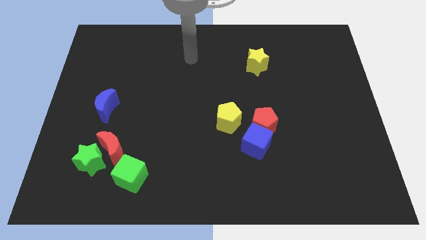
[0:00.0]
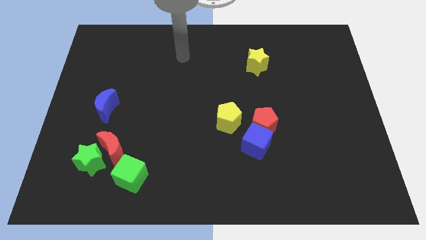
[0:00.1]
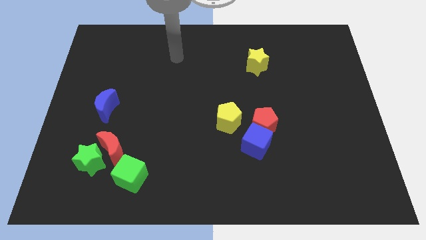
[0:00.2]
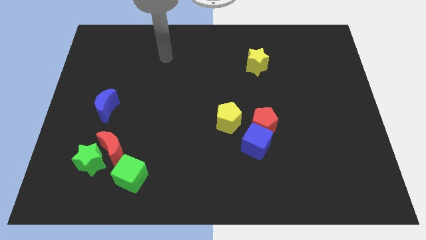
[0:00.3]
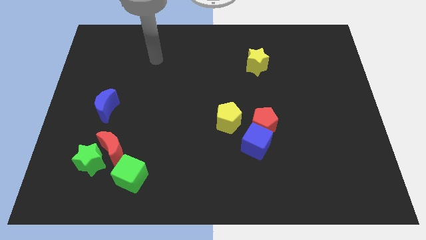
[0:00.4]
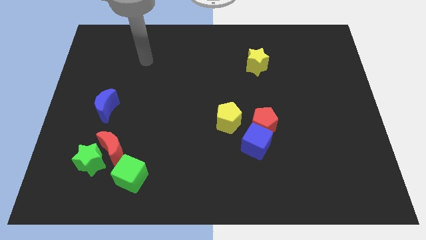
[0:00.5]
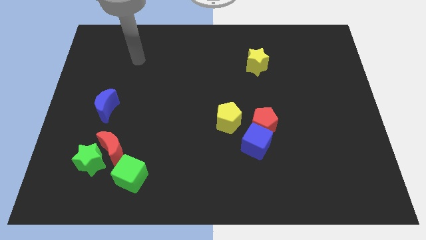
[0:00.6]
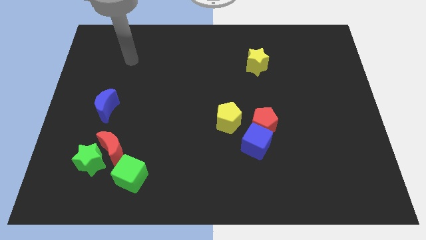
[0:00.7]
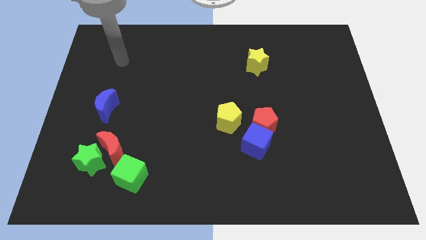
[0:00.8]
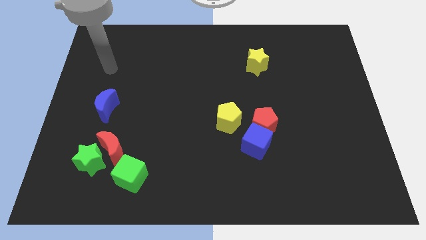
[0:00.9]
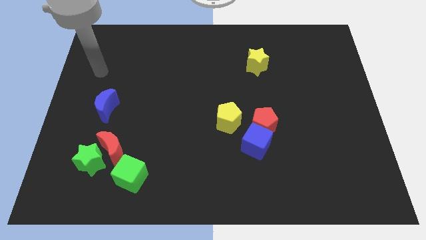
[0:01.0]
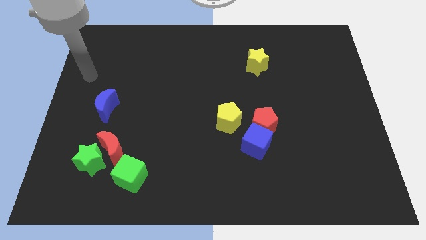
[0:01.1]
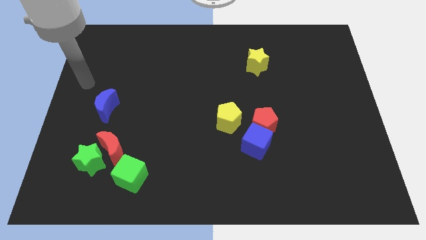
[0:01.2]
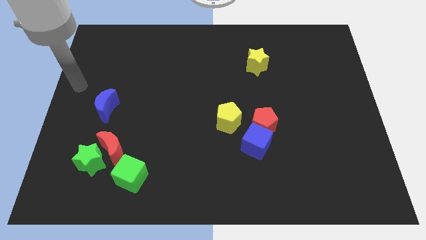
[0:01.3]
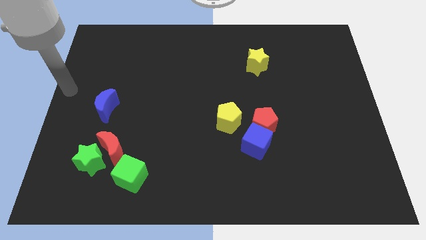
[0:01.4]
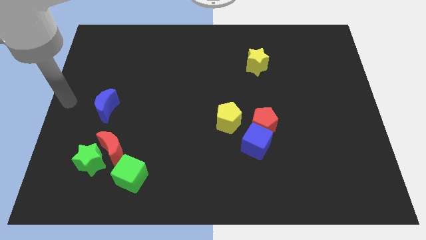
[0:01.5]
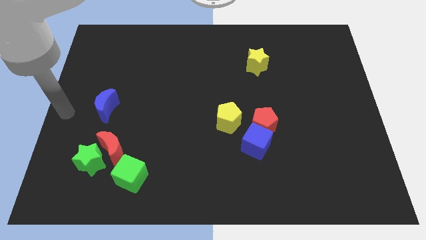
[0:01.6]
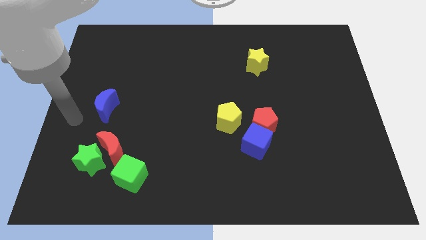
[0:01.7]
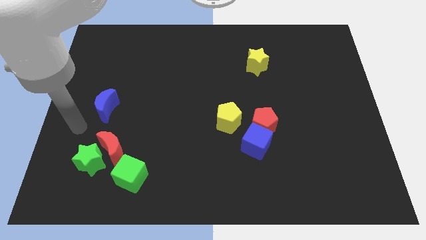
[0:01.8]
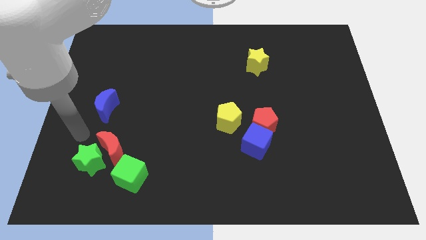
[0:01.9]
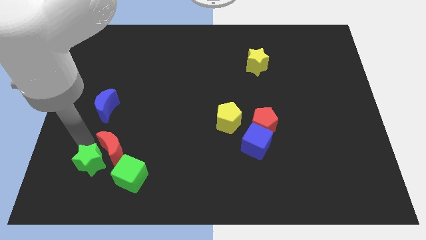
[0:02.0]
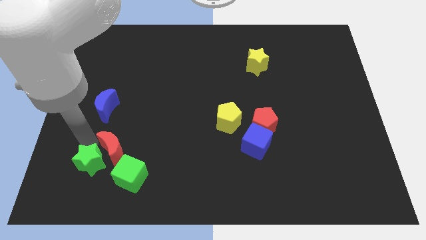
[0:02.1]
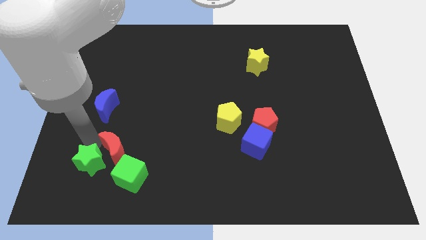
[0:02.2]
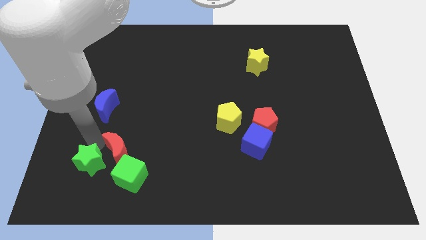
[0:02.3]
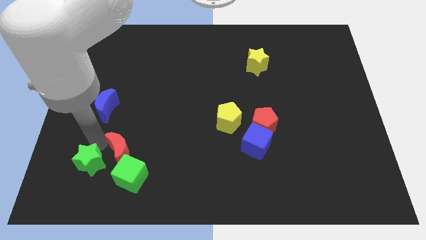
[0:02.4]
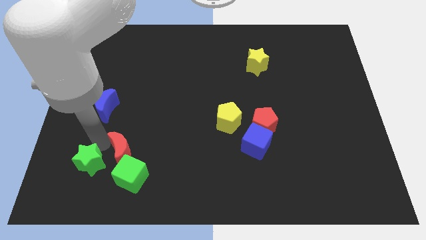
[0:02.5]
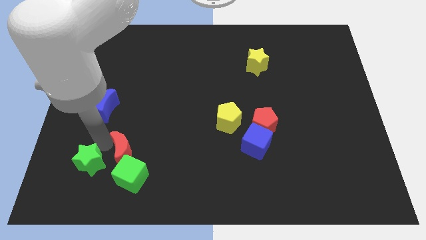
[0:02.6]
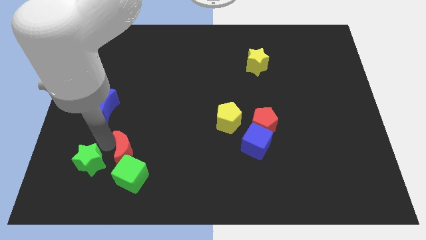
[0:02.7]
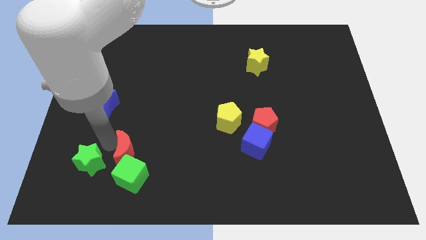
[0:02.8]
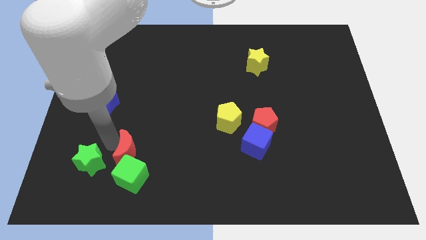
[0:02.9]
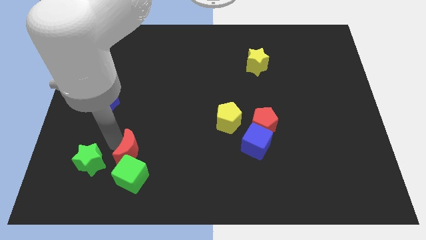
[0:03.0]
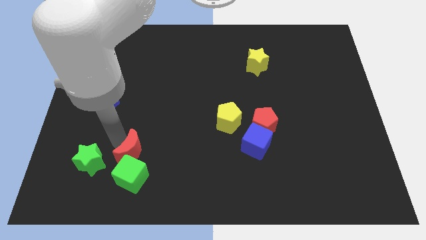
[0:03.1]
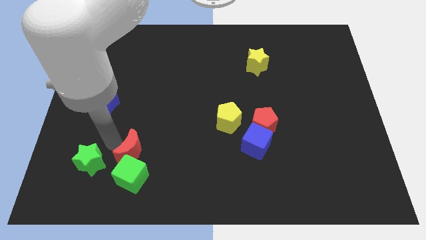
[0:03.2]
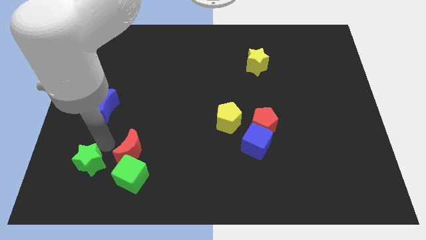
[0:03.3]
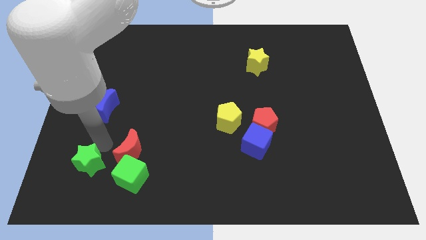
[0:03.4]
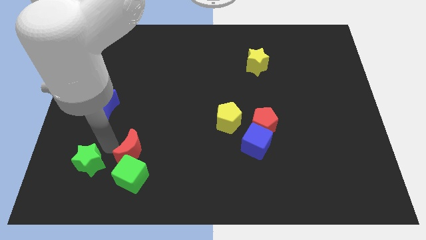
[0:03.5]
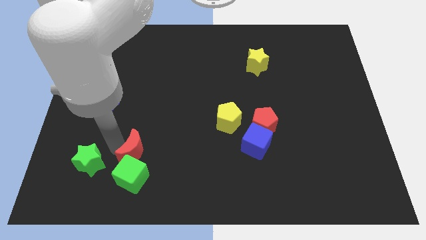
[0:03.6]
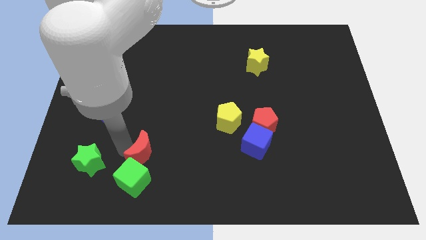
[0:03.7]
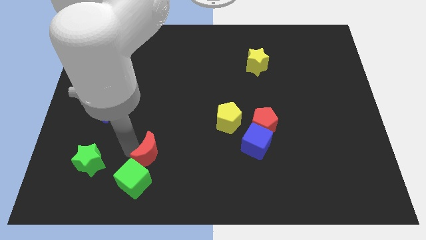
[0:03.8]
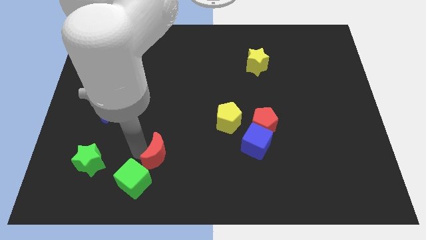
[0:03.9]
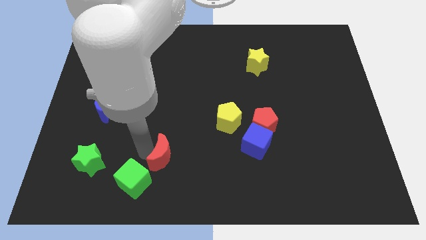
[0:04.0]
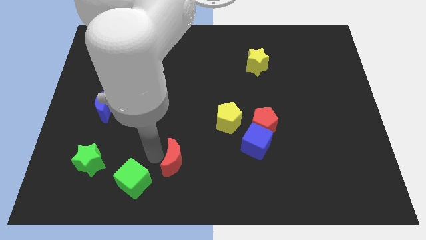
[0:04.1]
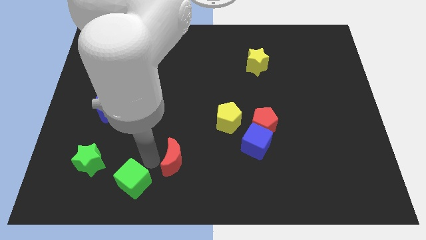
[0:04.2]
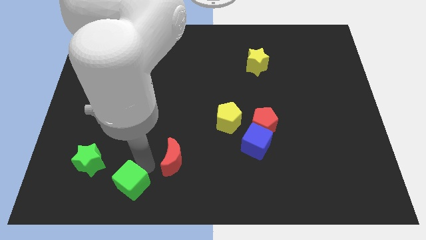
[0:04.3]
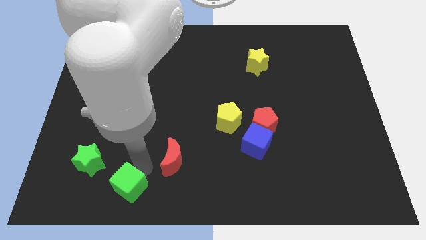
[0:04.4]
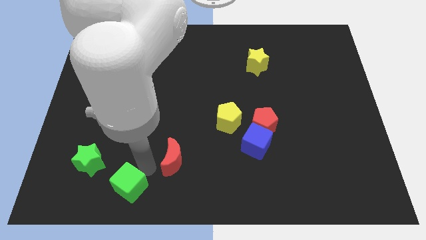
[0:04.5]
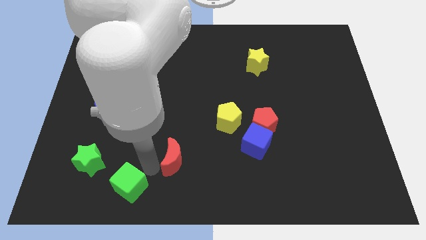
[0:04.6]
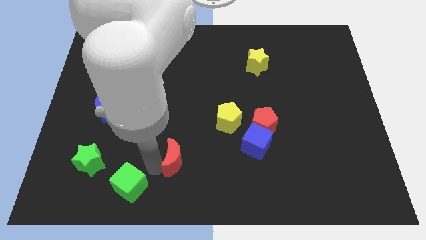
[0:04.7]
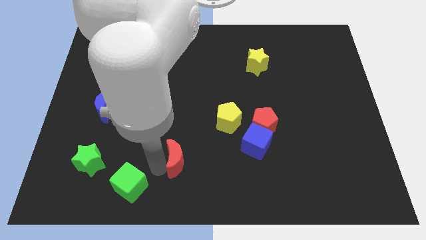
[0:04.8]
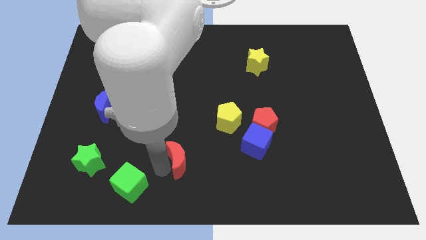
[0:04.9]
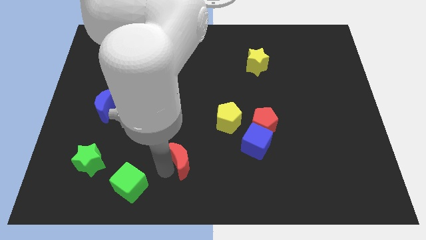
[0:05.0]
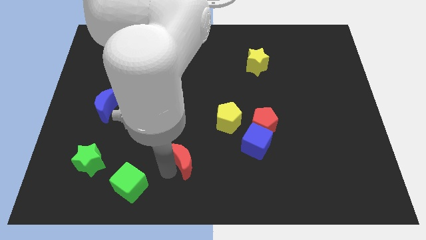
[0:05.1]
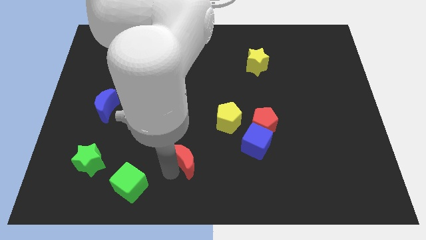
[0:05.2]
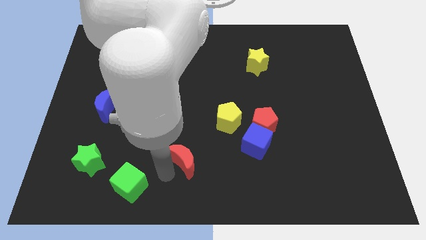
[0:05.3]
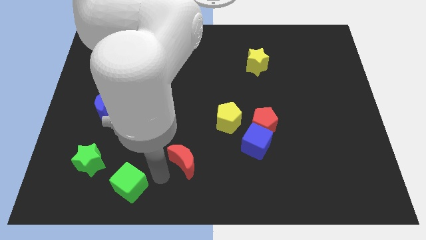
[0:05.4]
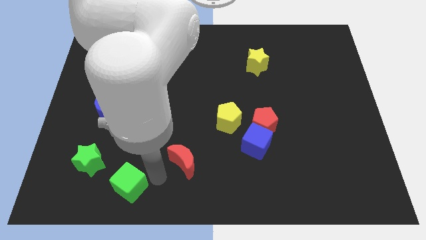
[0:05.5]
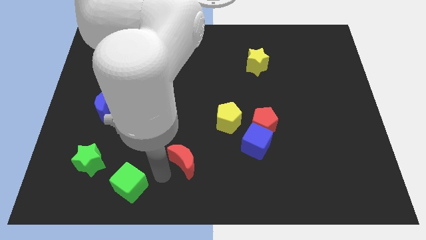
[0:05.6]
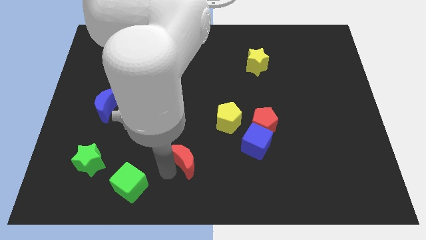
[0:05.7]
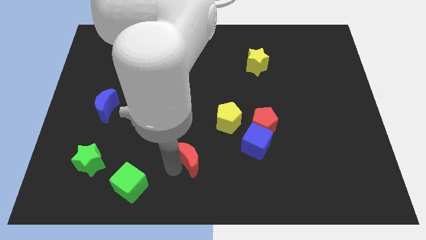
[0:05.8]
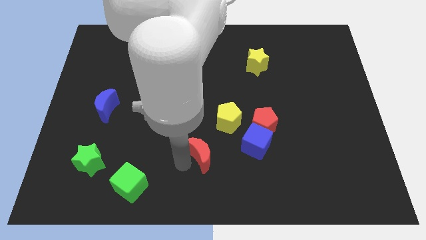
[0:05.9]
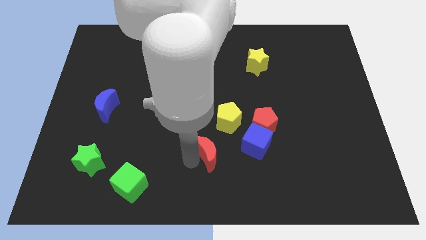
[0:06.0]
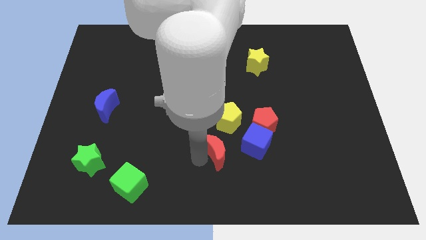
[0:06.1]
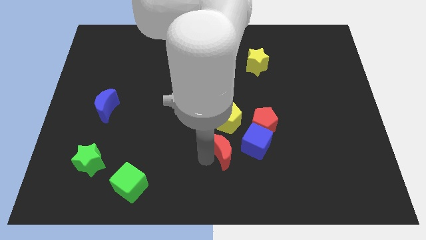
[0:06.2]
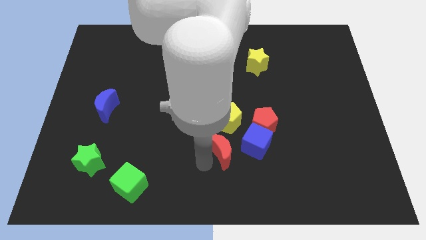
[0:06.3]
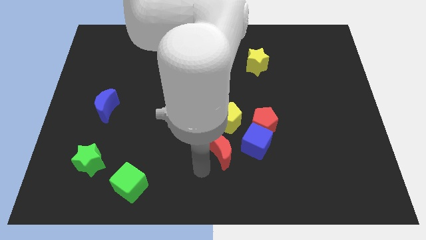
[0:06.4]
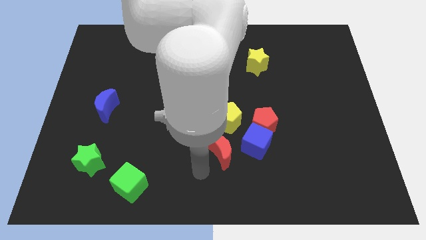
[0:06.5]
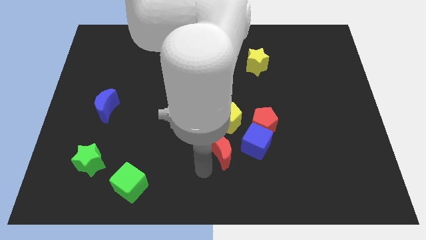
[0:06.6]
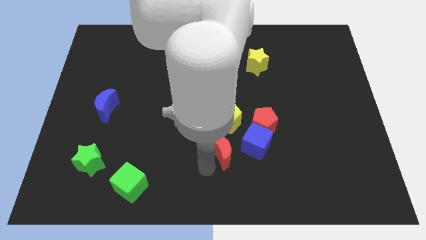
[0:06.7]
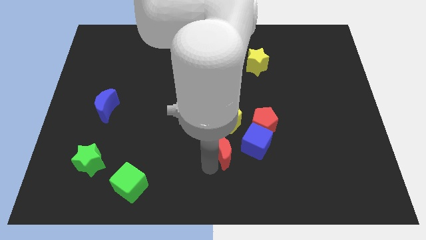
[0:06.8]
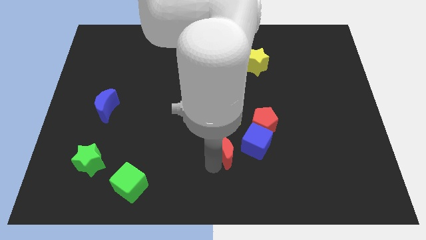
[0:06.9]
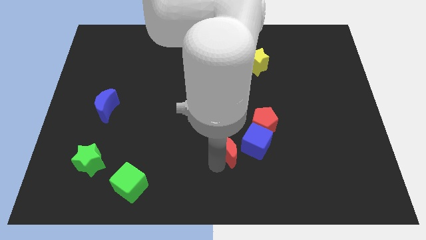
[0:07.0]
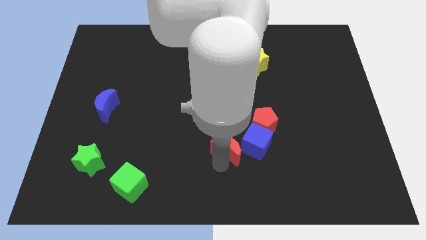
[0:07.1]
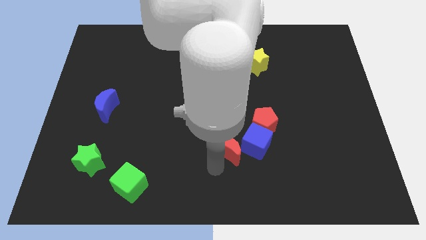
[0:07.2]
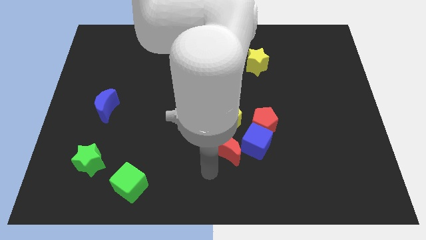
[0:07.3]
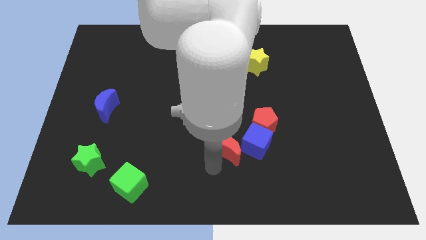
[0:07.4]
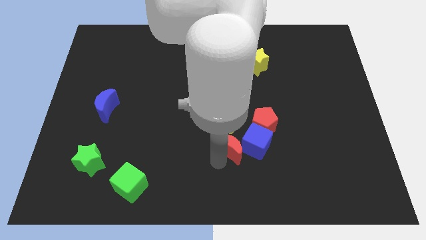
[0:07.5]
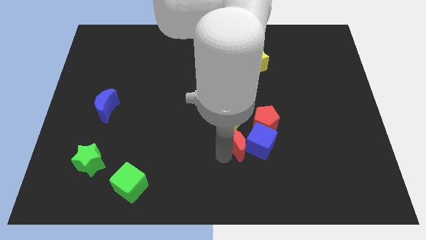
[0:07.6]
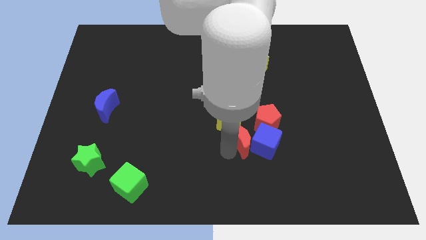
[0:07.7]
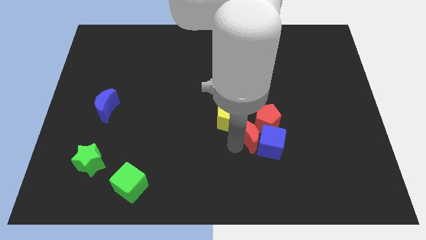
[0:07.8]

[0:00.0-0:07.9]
move the red moon next to the red pentagon
